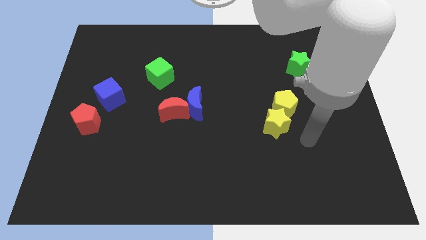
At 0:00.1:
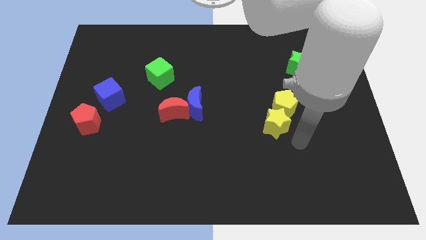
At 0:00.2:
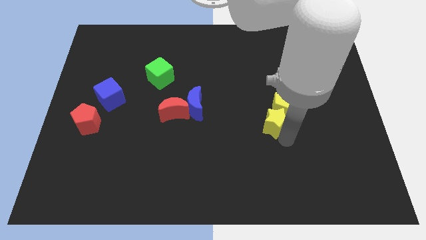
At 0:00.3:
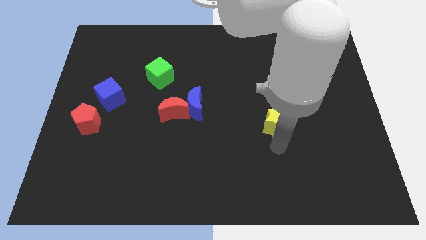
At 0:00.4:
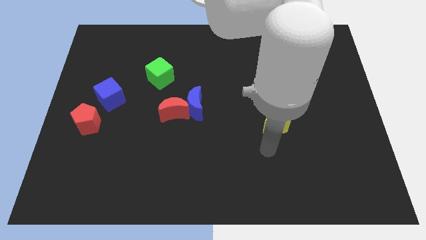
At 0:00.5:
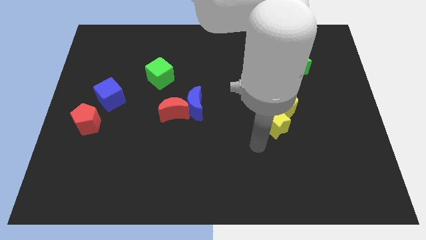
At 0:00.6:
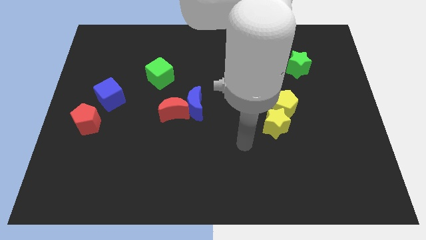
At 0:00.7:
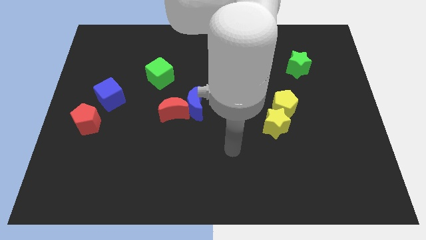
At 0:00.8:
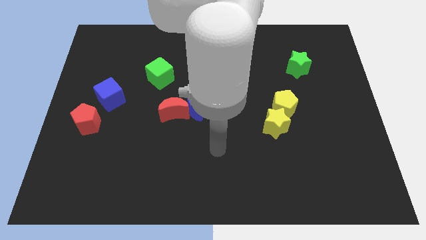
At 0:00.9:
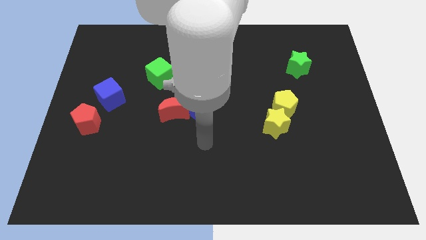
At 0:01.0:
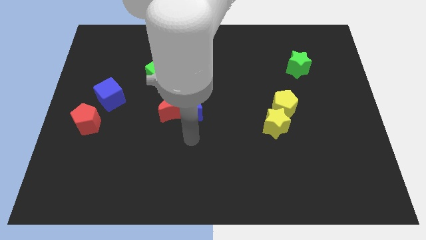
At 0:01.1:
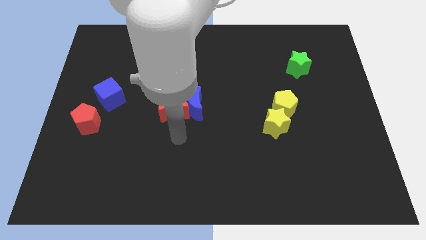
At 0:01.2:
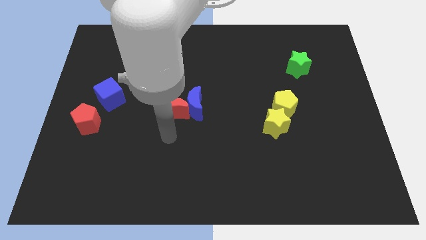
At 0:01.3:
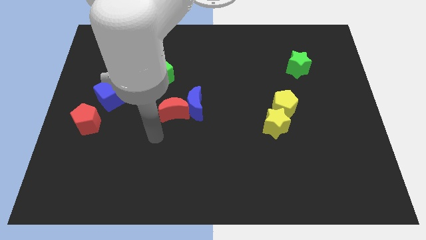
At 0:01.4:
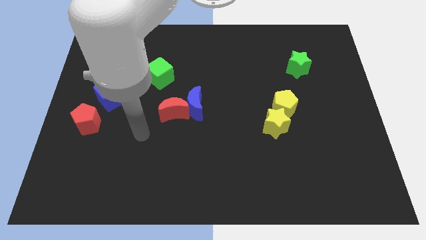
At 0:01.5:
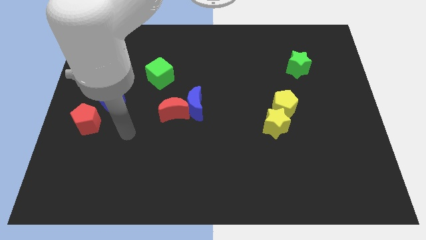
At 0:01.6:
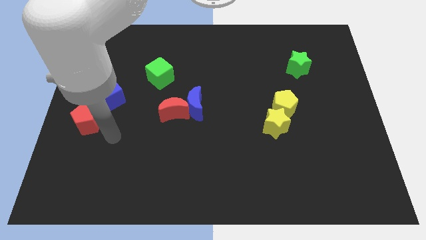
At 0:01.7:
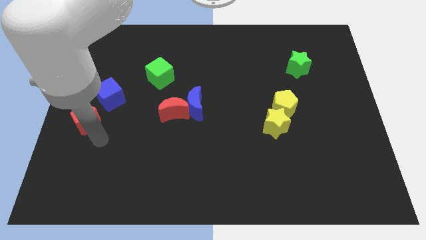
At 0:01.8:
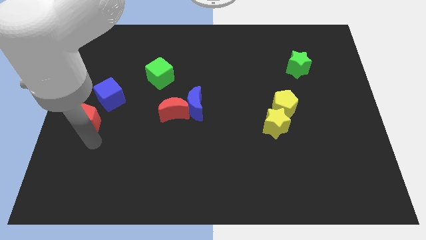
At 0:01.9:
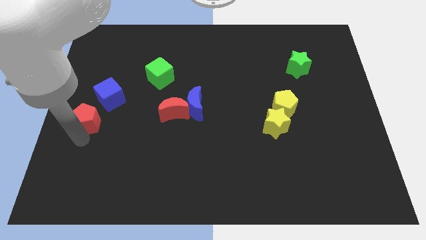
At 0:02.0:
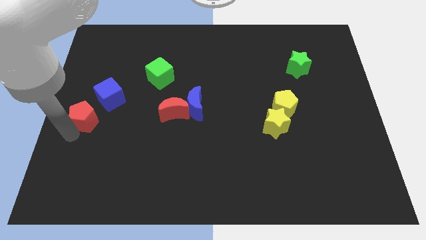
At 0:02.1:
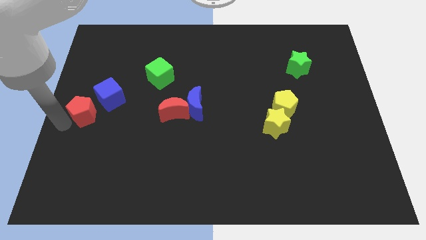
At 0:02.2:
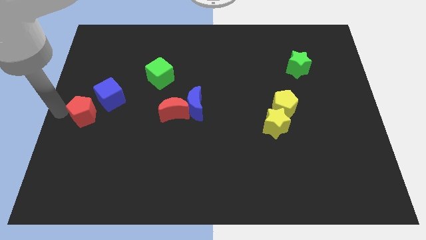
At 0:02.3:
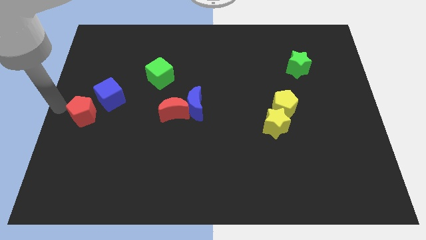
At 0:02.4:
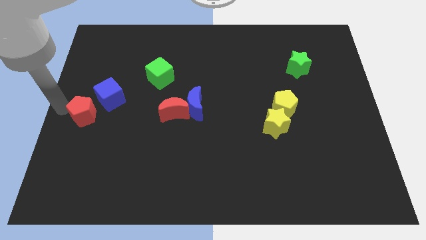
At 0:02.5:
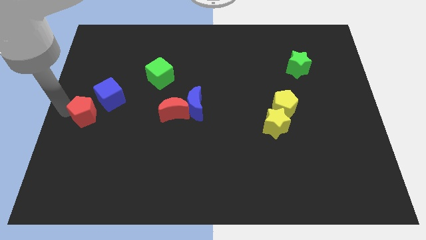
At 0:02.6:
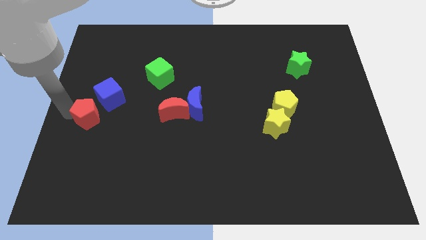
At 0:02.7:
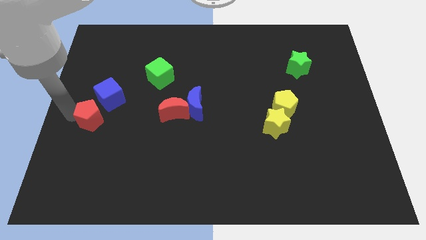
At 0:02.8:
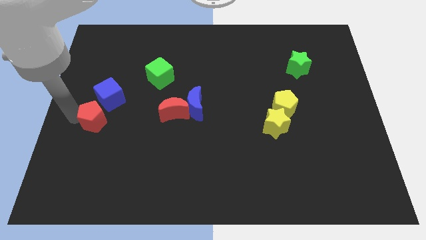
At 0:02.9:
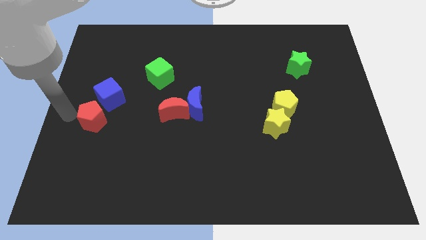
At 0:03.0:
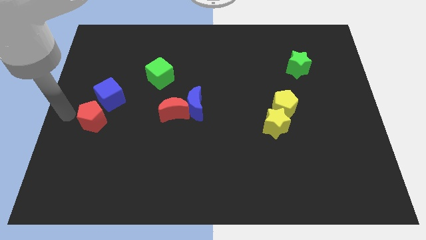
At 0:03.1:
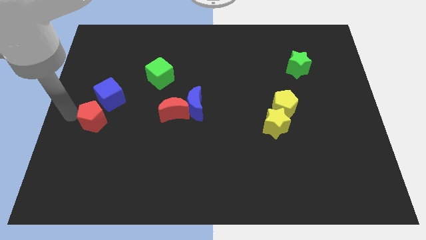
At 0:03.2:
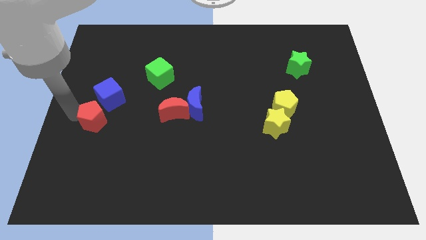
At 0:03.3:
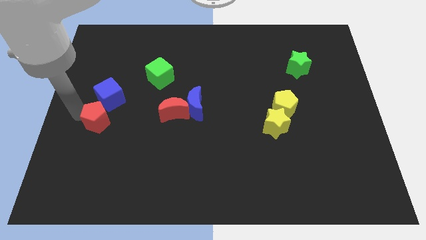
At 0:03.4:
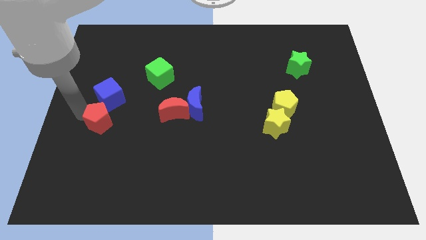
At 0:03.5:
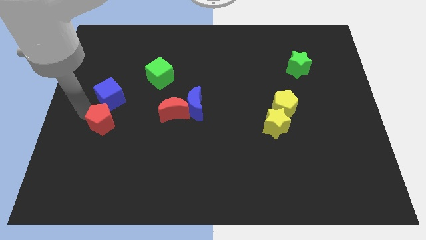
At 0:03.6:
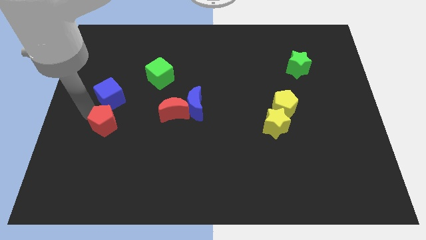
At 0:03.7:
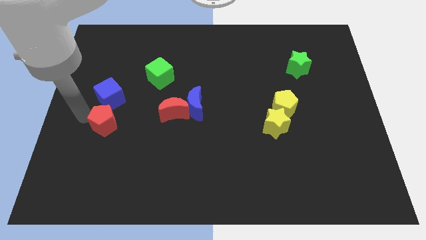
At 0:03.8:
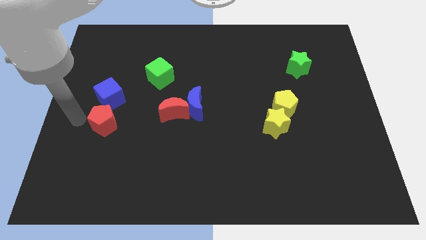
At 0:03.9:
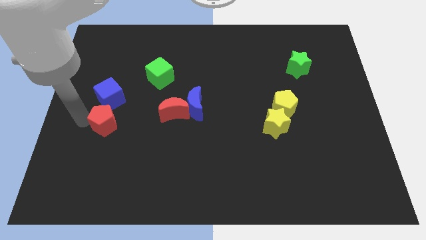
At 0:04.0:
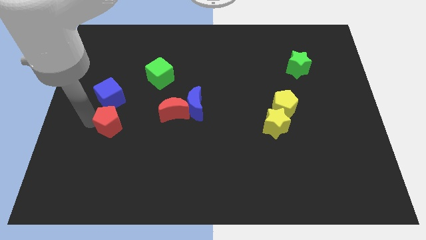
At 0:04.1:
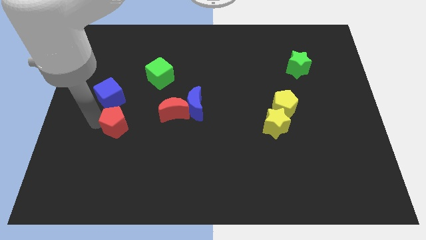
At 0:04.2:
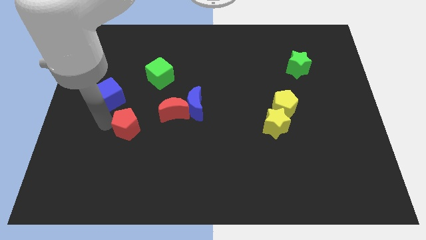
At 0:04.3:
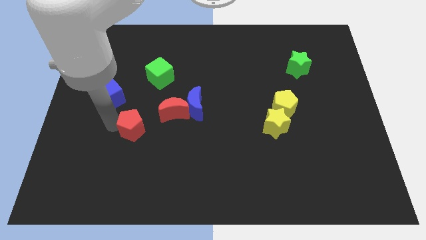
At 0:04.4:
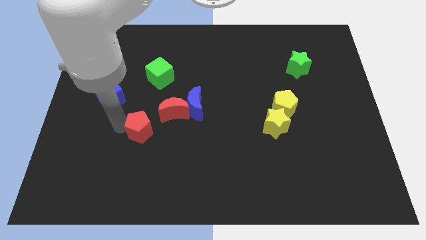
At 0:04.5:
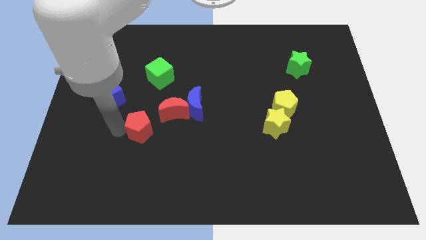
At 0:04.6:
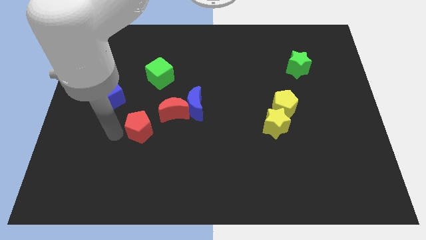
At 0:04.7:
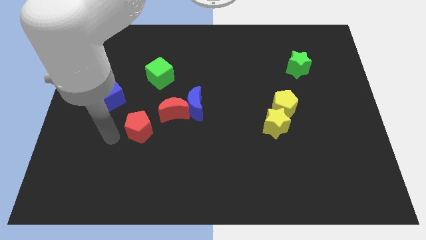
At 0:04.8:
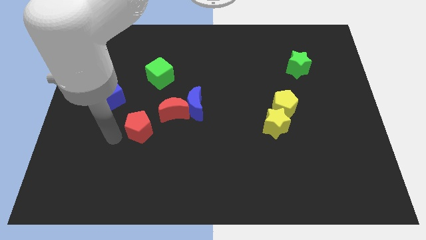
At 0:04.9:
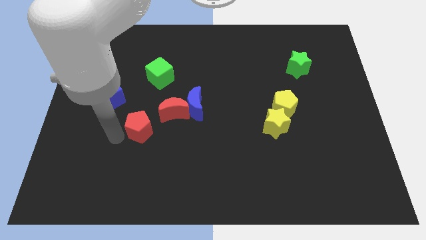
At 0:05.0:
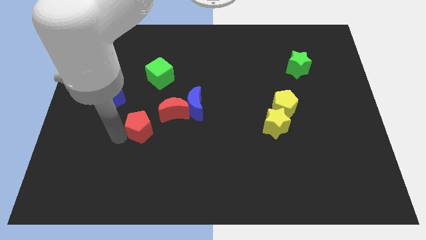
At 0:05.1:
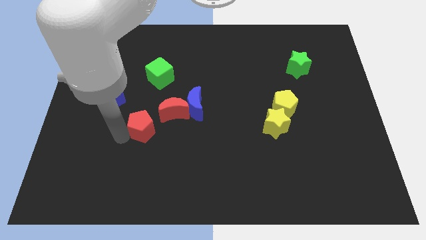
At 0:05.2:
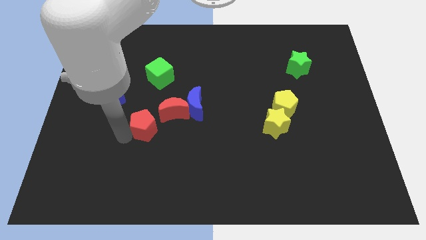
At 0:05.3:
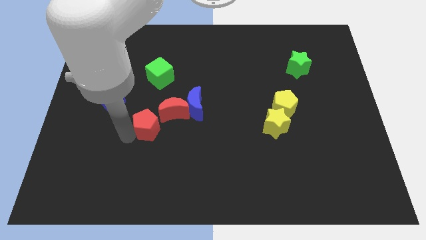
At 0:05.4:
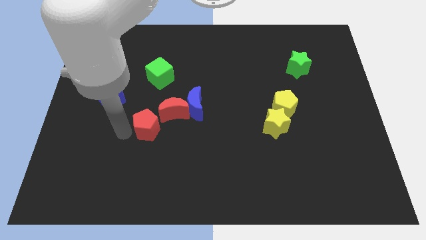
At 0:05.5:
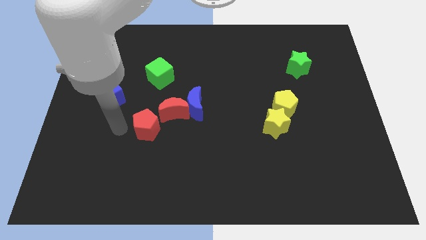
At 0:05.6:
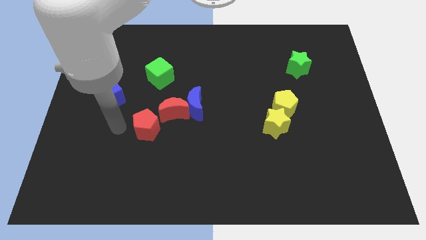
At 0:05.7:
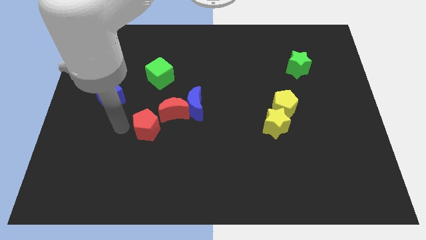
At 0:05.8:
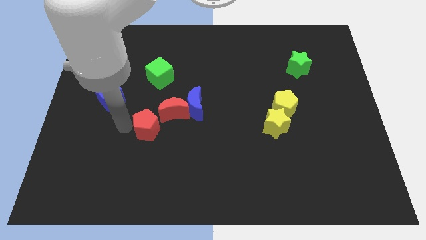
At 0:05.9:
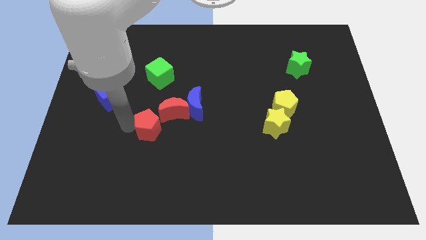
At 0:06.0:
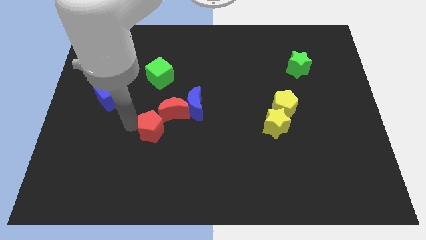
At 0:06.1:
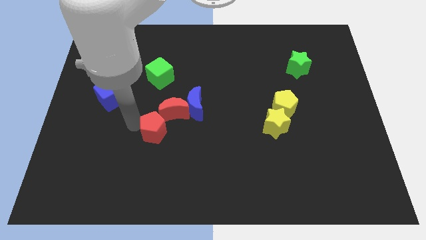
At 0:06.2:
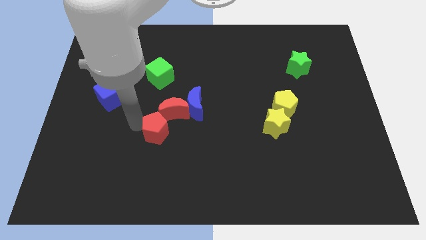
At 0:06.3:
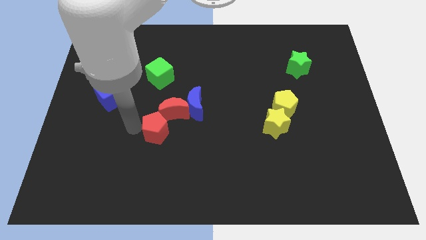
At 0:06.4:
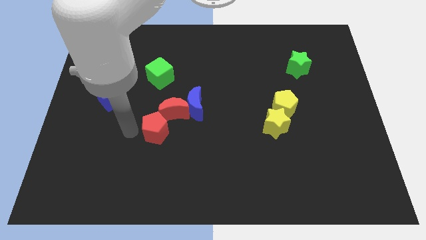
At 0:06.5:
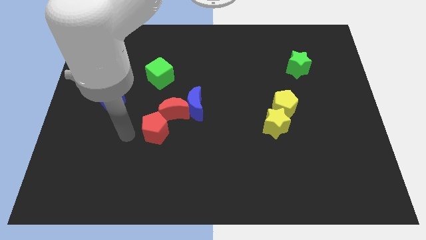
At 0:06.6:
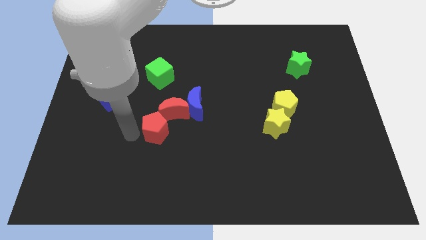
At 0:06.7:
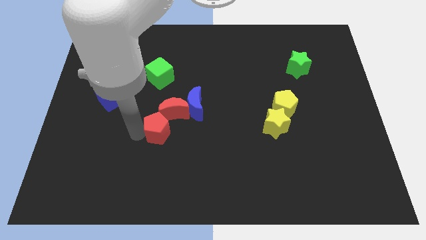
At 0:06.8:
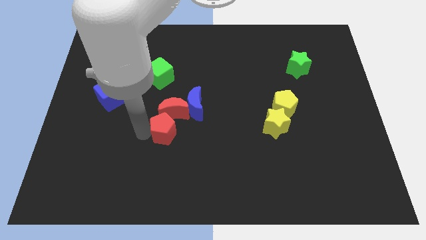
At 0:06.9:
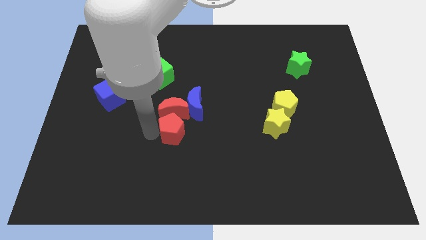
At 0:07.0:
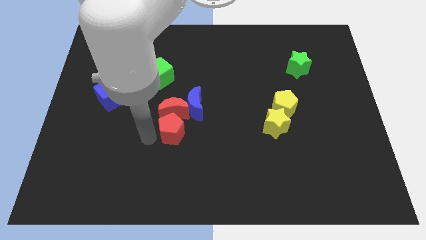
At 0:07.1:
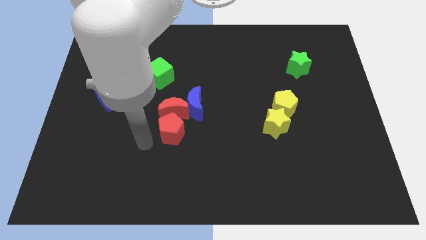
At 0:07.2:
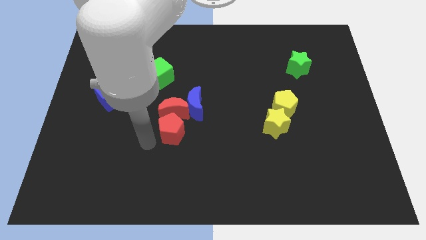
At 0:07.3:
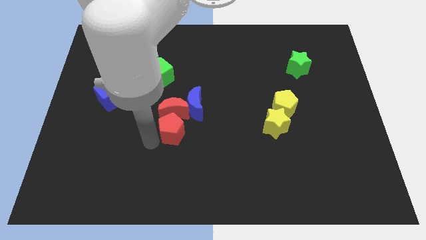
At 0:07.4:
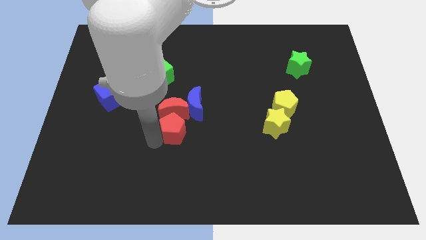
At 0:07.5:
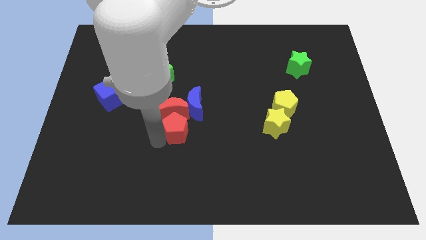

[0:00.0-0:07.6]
push the red pentagon to the right

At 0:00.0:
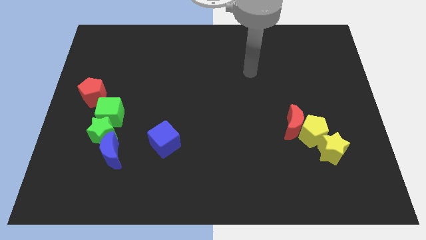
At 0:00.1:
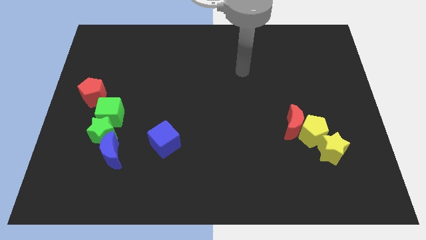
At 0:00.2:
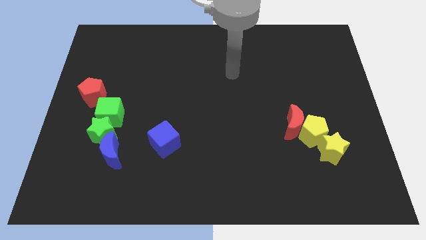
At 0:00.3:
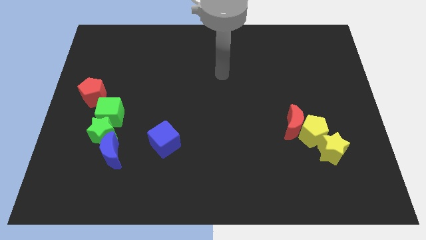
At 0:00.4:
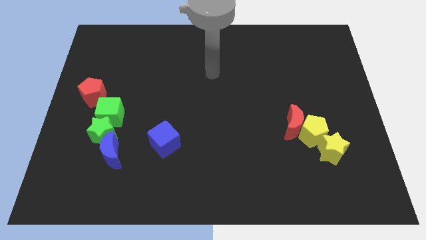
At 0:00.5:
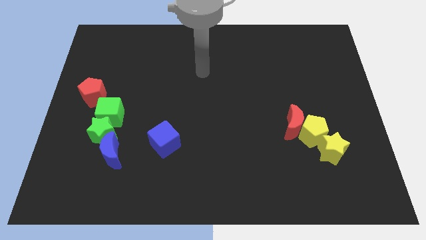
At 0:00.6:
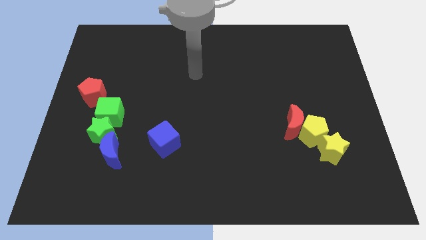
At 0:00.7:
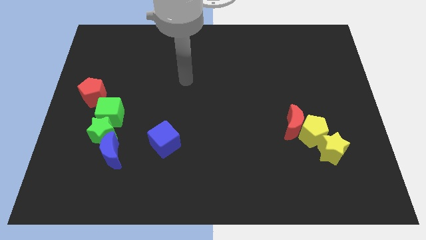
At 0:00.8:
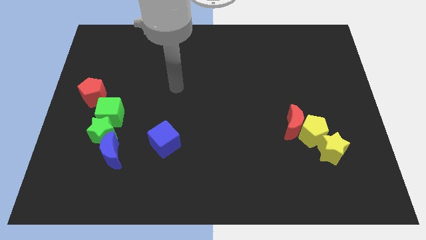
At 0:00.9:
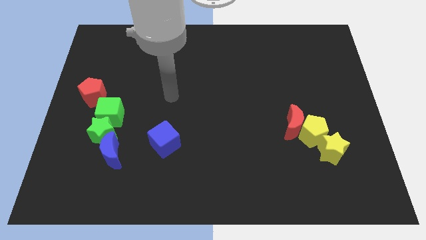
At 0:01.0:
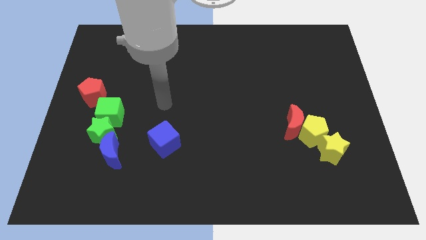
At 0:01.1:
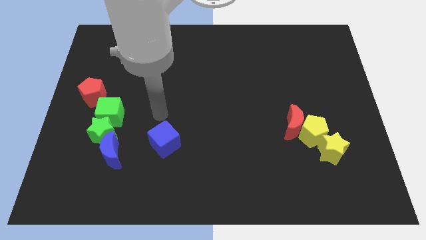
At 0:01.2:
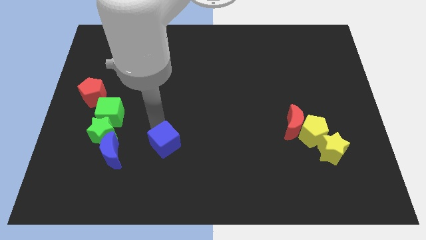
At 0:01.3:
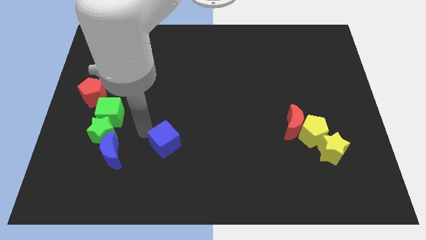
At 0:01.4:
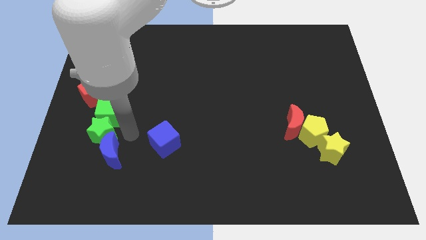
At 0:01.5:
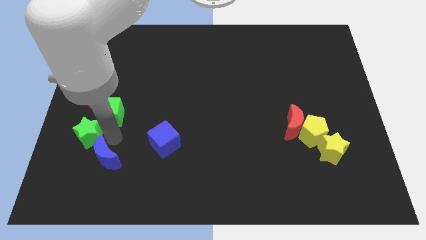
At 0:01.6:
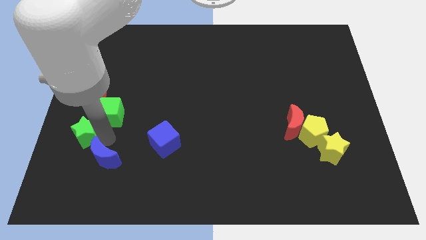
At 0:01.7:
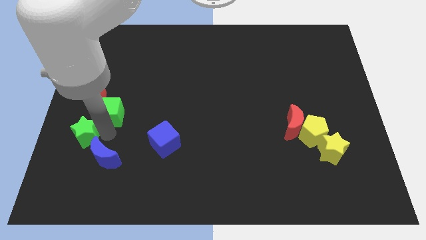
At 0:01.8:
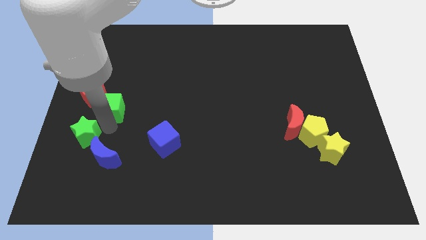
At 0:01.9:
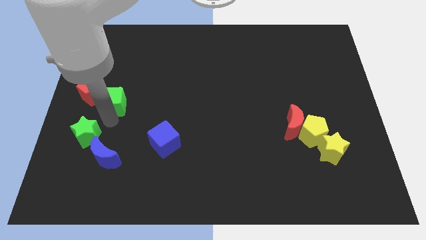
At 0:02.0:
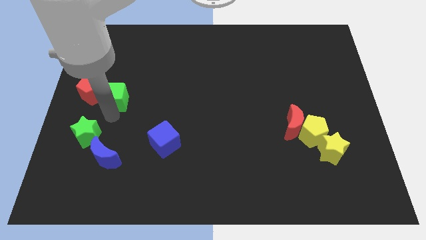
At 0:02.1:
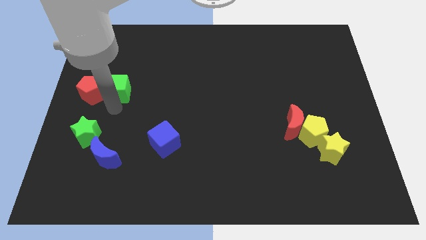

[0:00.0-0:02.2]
slightly push the green cube upwards
